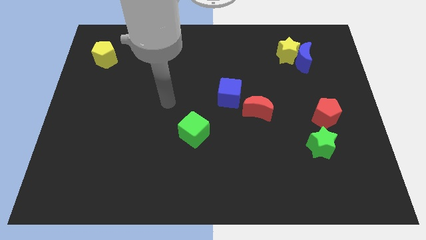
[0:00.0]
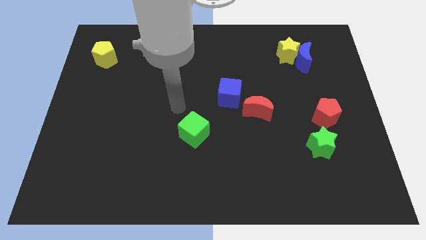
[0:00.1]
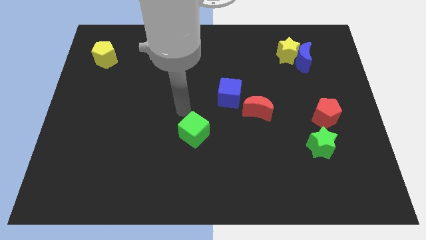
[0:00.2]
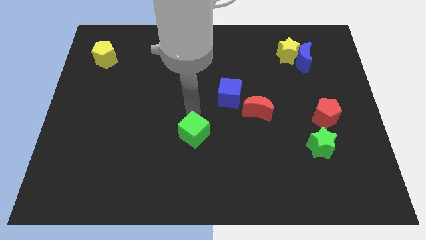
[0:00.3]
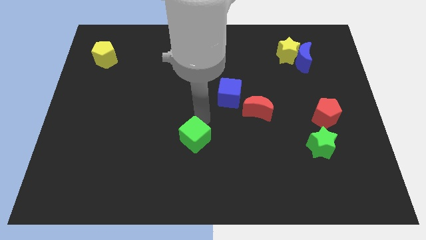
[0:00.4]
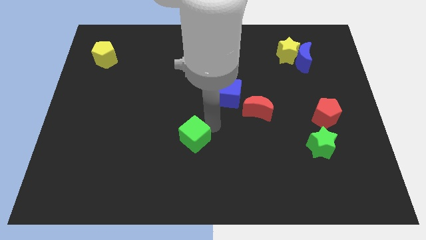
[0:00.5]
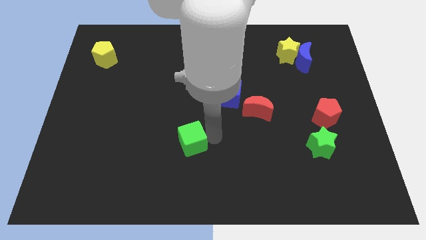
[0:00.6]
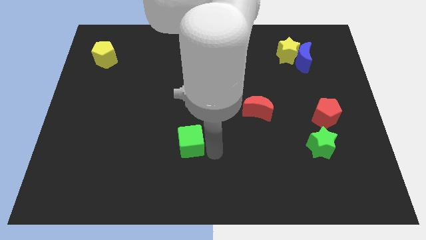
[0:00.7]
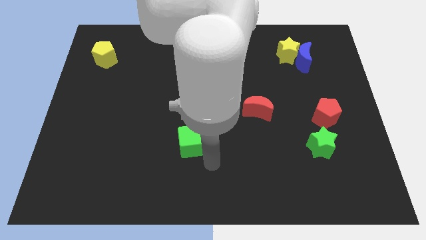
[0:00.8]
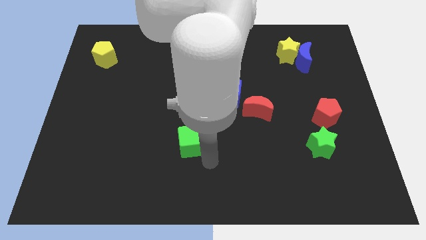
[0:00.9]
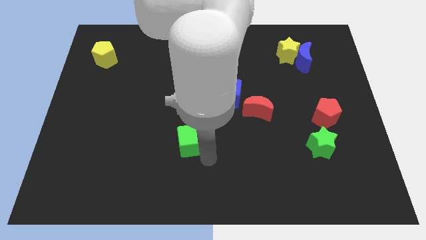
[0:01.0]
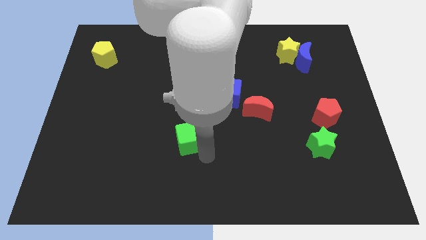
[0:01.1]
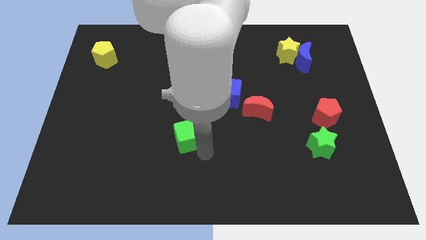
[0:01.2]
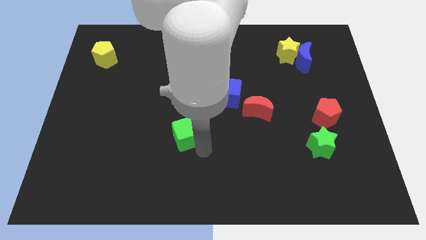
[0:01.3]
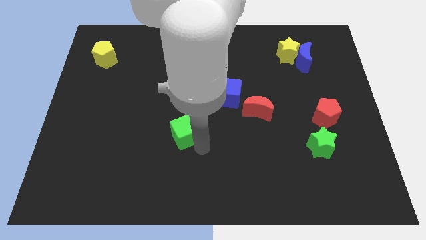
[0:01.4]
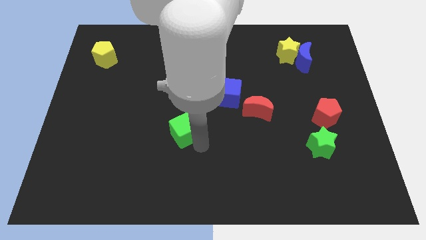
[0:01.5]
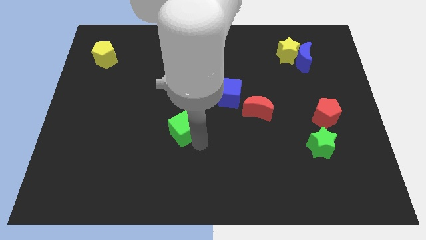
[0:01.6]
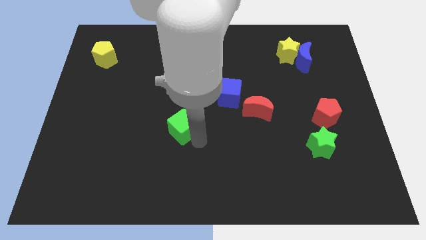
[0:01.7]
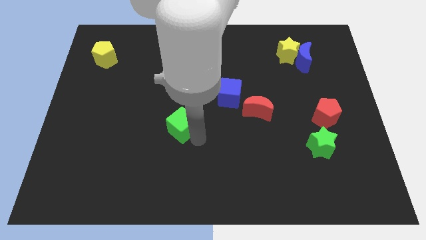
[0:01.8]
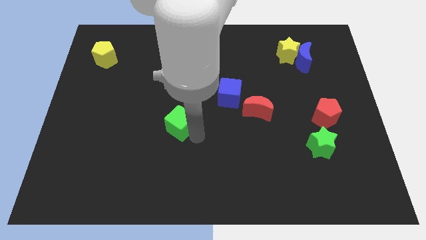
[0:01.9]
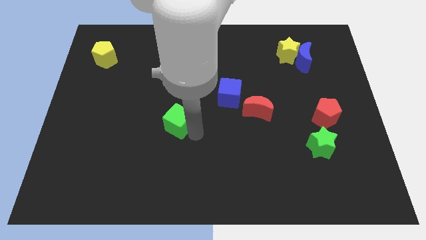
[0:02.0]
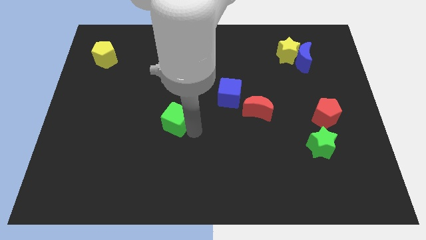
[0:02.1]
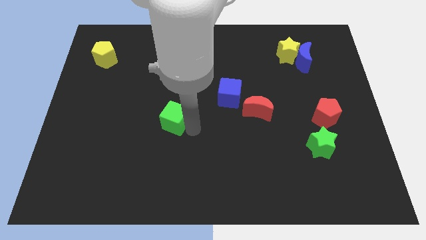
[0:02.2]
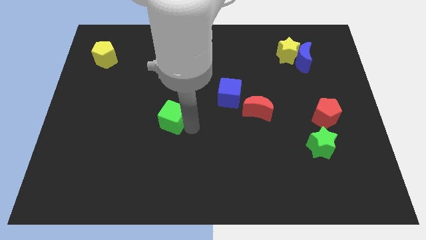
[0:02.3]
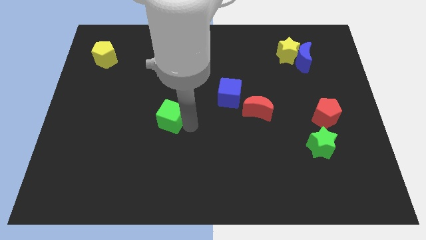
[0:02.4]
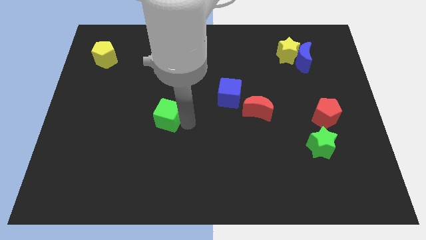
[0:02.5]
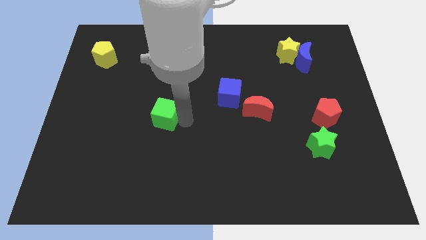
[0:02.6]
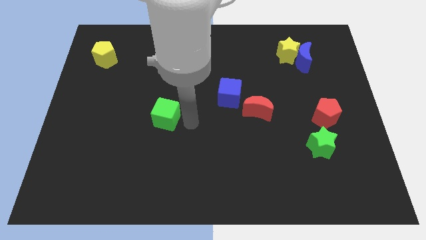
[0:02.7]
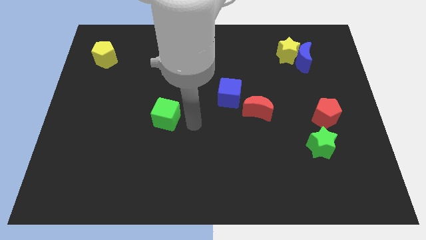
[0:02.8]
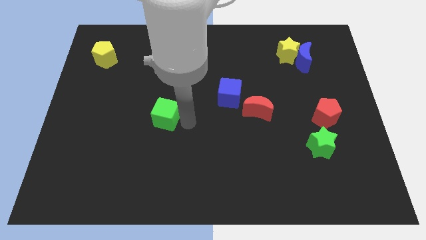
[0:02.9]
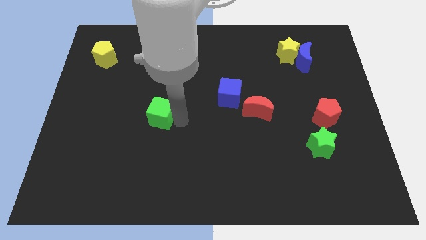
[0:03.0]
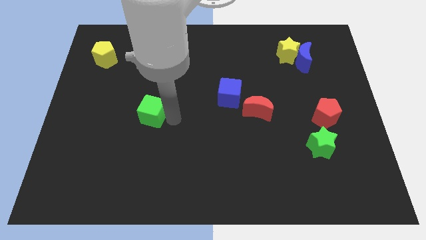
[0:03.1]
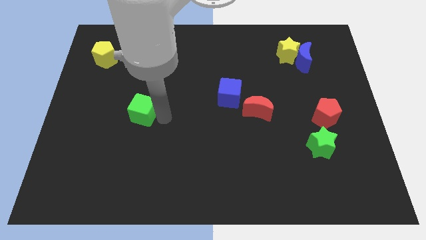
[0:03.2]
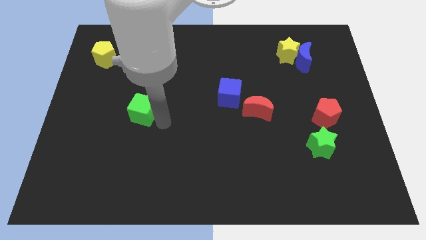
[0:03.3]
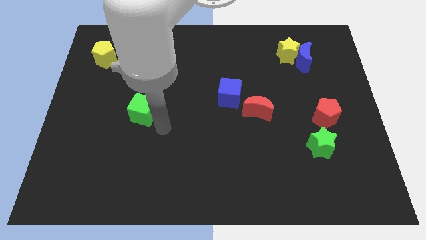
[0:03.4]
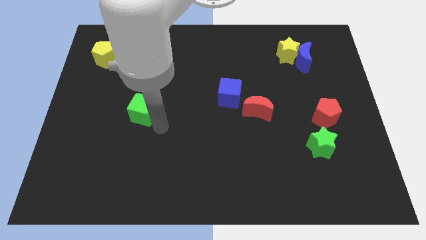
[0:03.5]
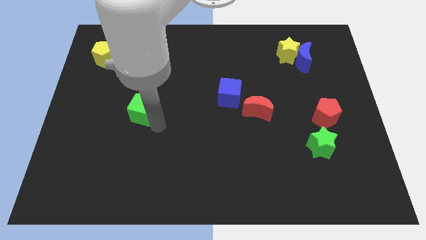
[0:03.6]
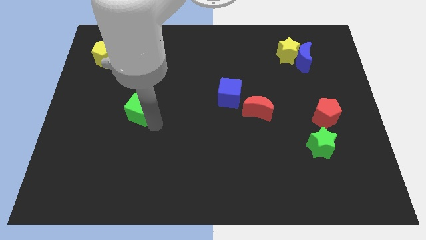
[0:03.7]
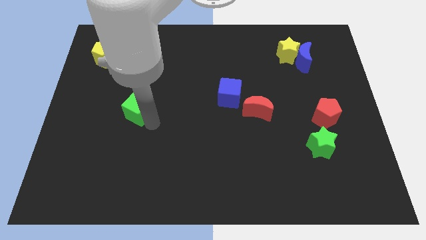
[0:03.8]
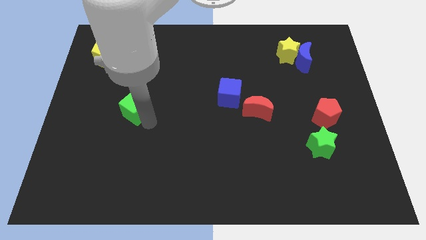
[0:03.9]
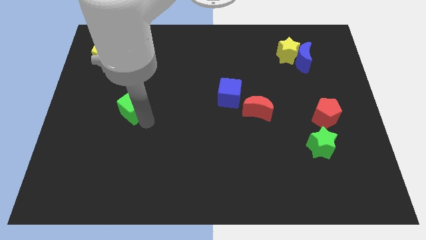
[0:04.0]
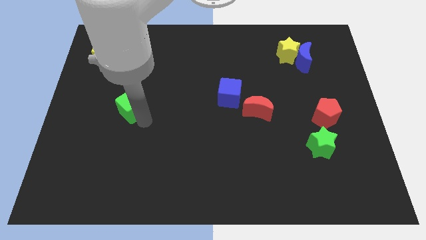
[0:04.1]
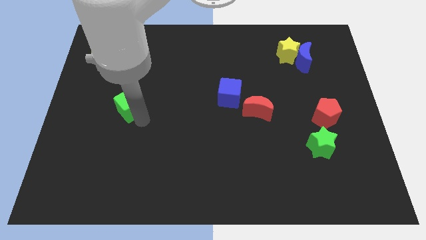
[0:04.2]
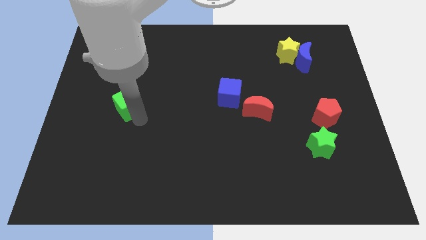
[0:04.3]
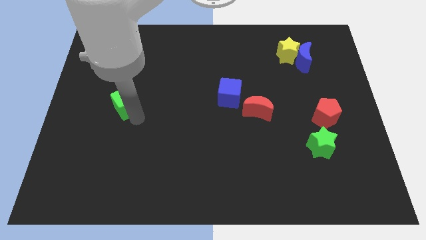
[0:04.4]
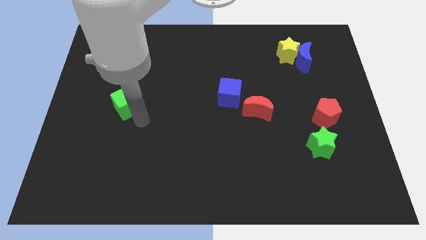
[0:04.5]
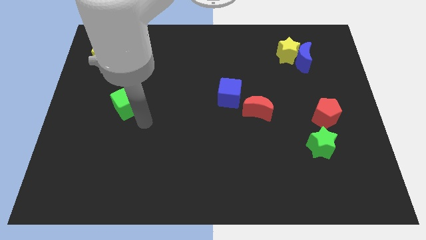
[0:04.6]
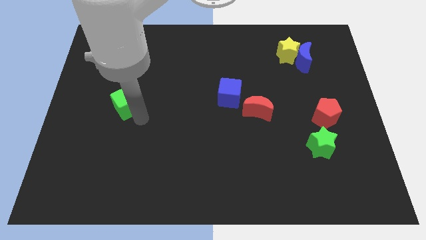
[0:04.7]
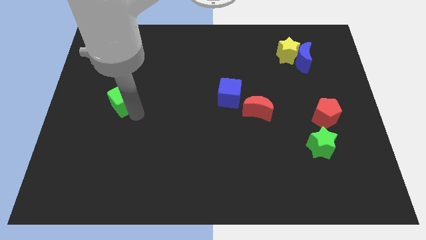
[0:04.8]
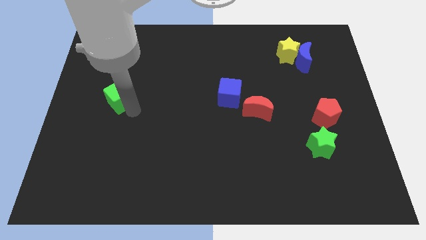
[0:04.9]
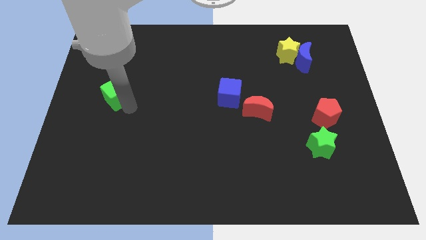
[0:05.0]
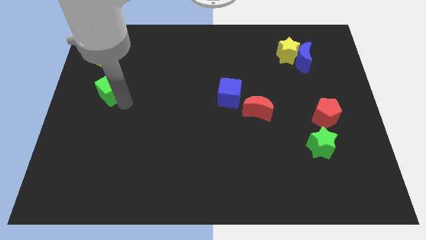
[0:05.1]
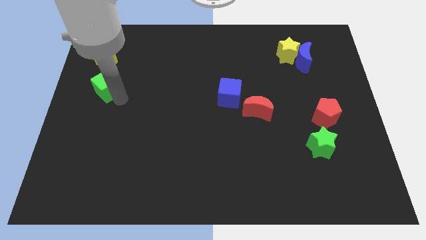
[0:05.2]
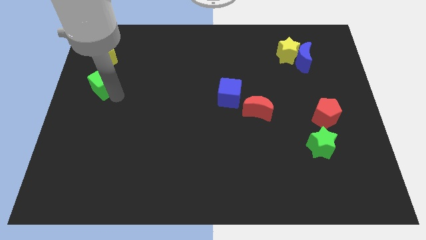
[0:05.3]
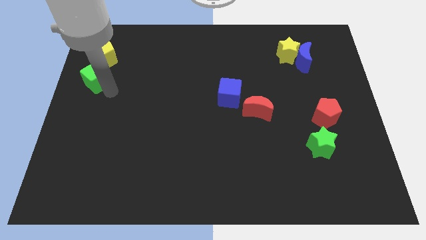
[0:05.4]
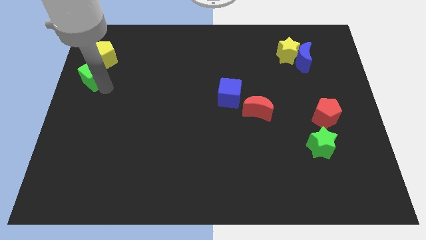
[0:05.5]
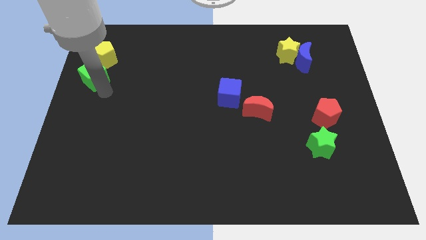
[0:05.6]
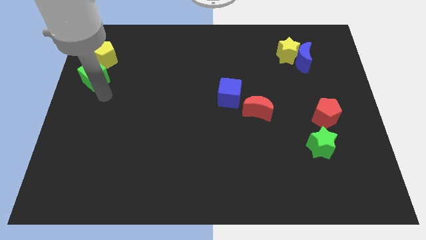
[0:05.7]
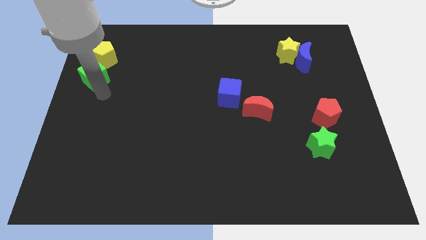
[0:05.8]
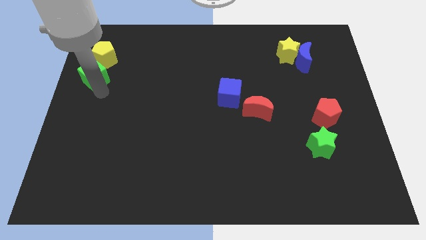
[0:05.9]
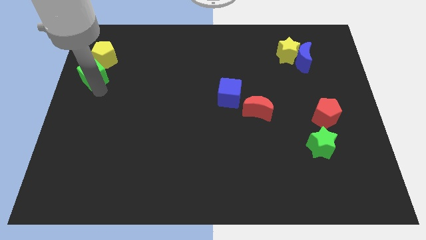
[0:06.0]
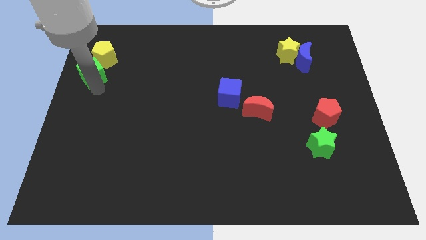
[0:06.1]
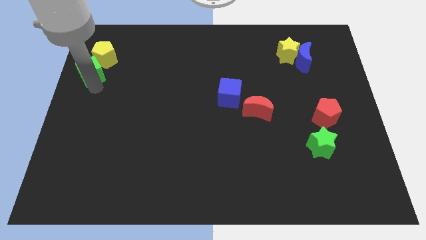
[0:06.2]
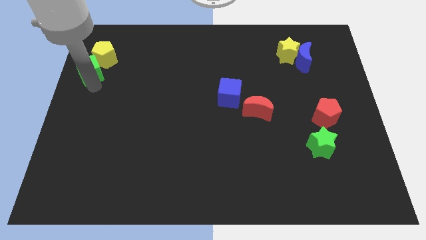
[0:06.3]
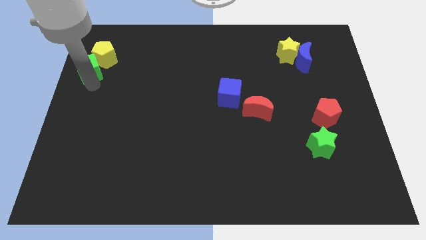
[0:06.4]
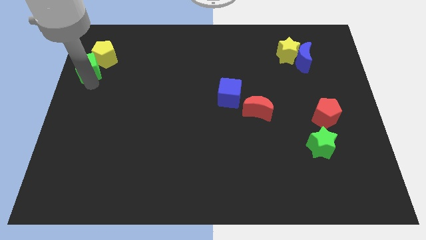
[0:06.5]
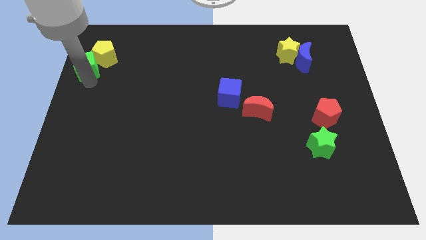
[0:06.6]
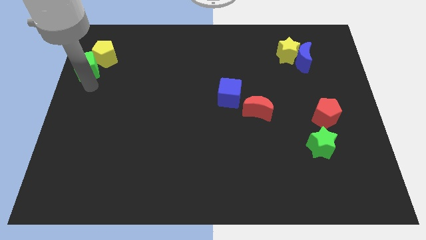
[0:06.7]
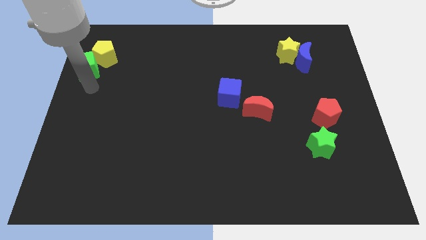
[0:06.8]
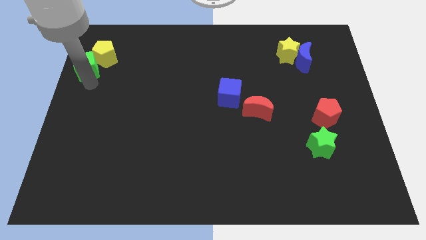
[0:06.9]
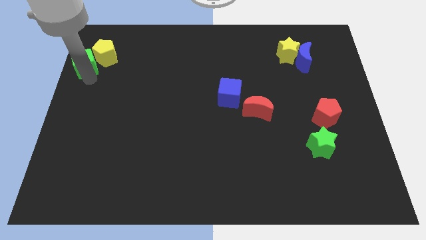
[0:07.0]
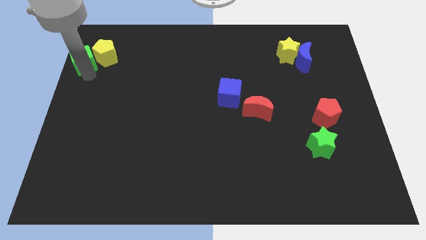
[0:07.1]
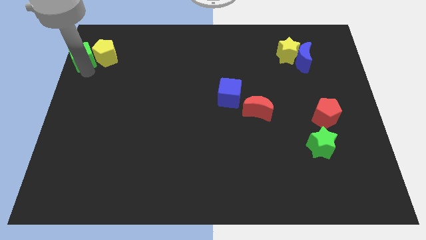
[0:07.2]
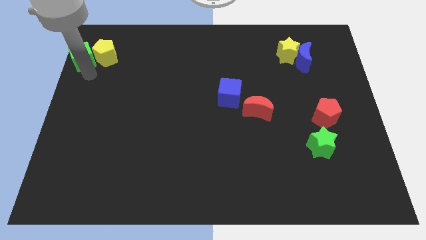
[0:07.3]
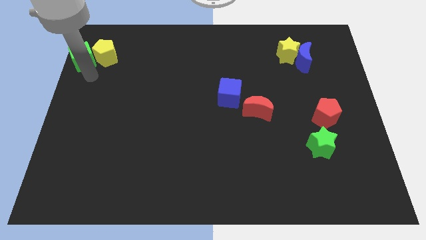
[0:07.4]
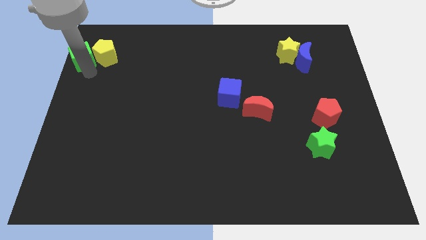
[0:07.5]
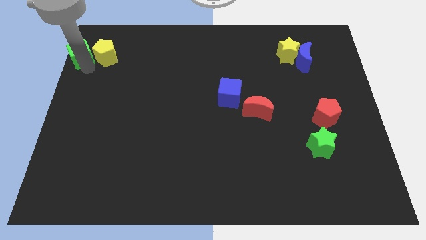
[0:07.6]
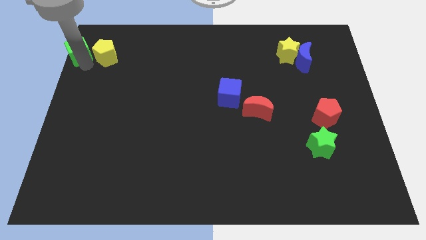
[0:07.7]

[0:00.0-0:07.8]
slide the green cube to the top left corner
